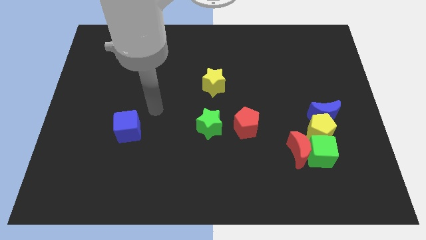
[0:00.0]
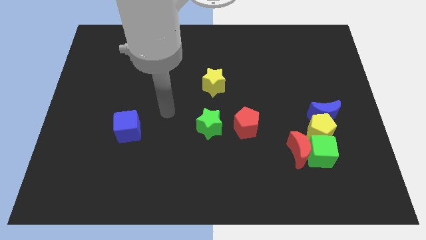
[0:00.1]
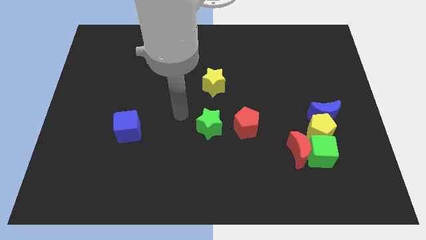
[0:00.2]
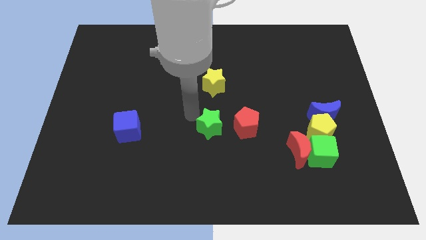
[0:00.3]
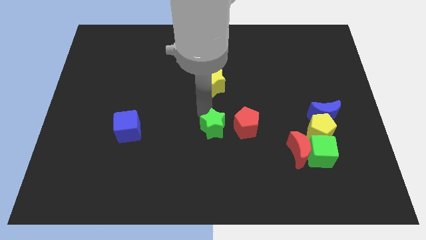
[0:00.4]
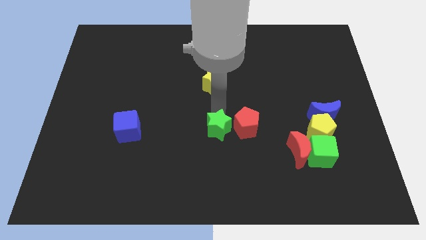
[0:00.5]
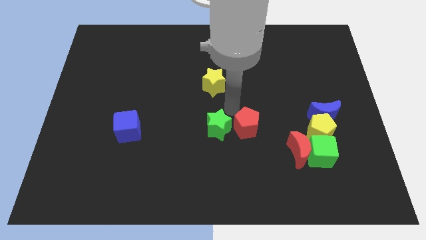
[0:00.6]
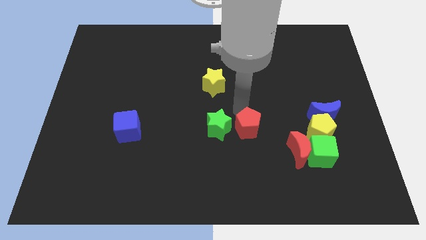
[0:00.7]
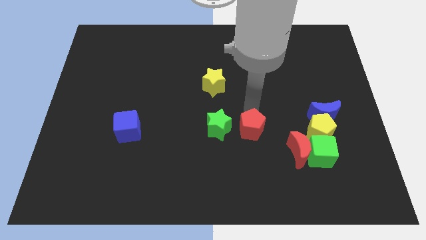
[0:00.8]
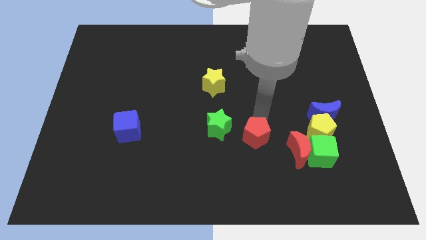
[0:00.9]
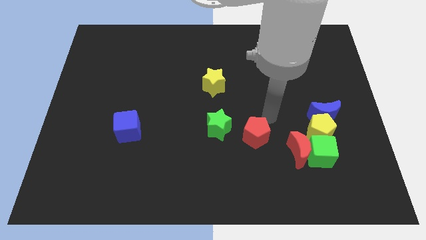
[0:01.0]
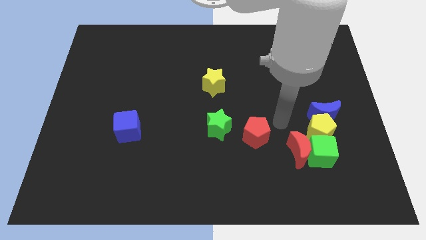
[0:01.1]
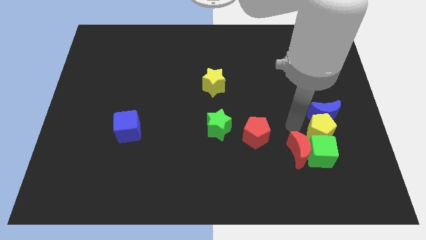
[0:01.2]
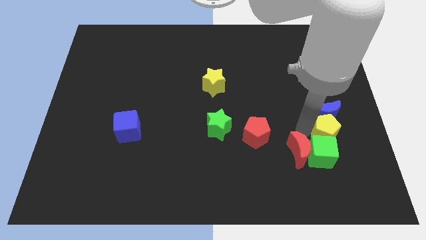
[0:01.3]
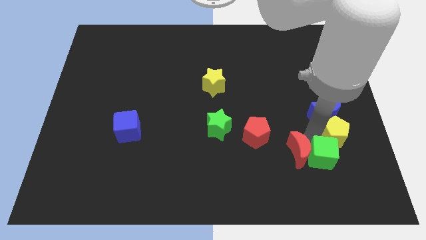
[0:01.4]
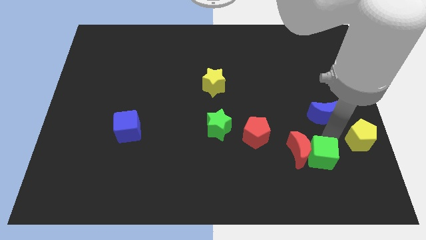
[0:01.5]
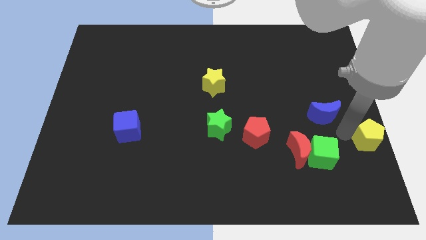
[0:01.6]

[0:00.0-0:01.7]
pull the blue moon apart from the yellow pentagon

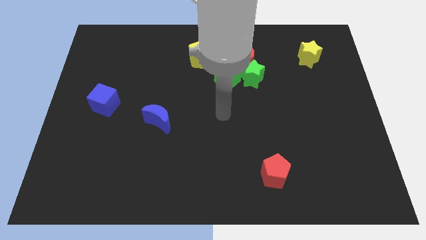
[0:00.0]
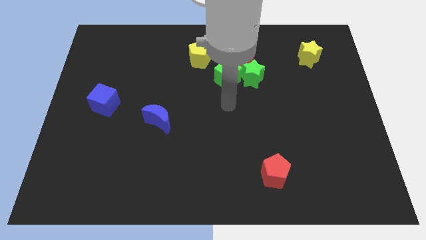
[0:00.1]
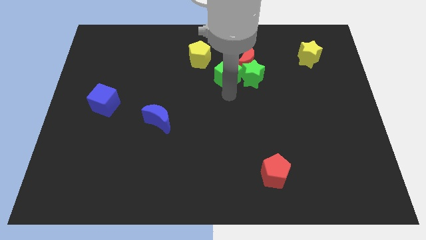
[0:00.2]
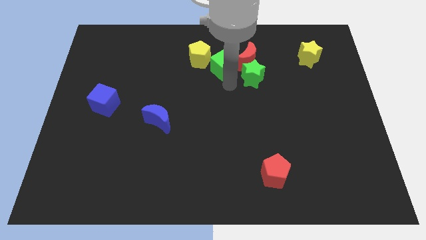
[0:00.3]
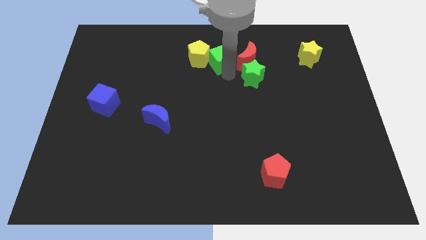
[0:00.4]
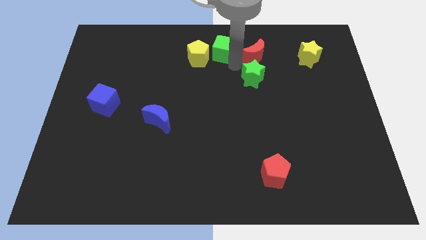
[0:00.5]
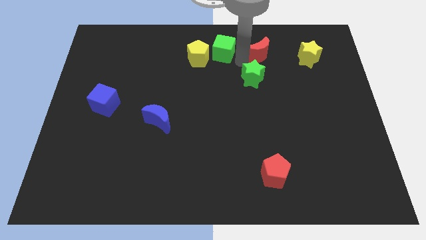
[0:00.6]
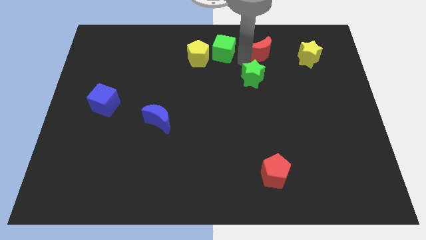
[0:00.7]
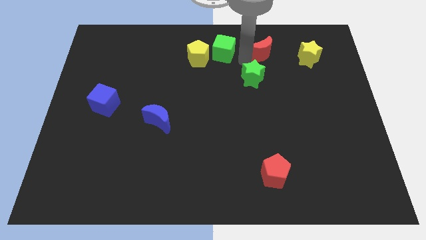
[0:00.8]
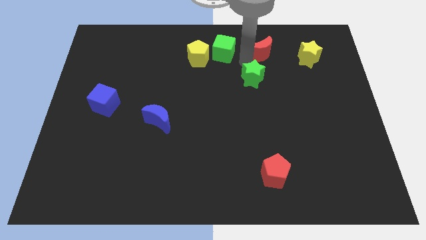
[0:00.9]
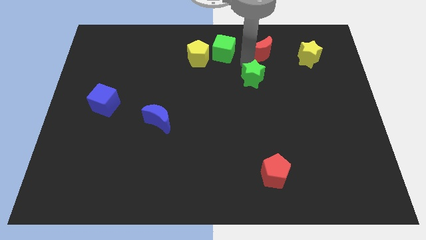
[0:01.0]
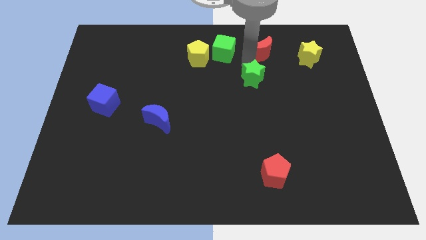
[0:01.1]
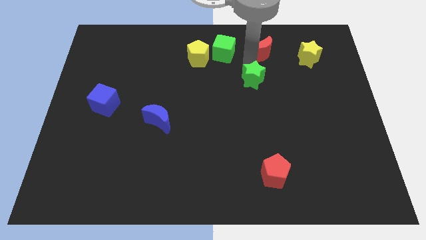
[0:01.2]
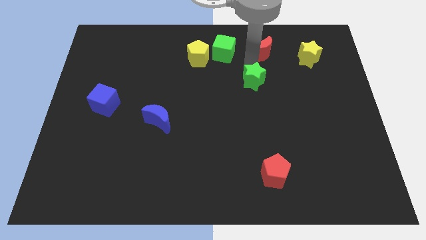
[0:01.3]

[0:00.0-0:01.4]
move the green star away from the red moon and green cube

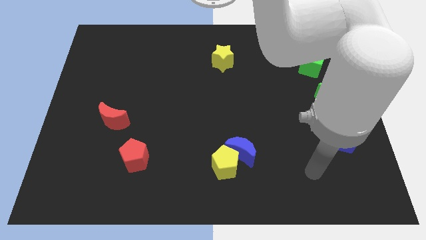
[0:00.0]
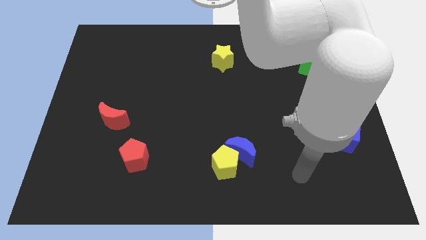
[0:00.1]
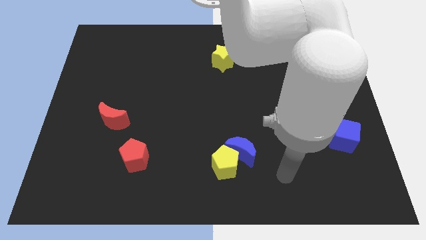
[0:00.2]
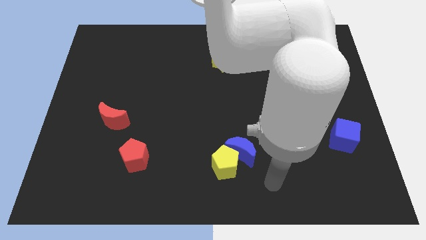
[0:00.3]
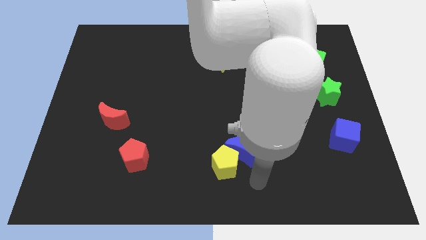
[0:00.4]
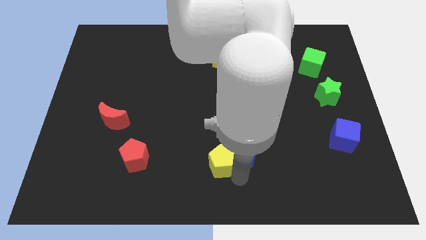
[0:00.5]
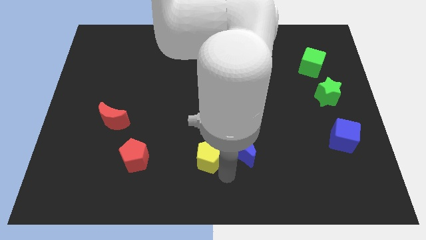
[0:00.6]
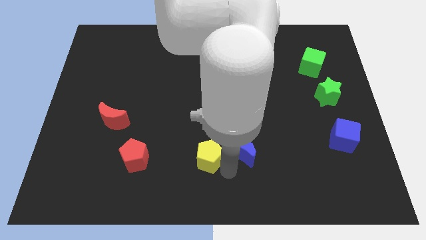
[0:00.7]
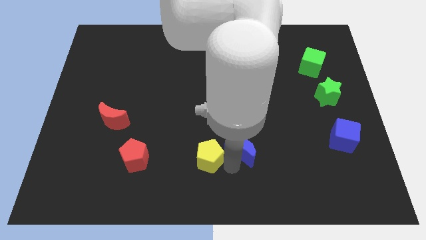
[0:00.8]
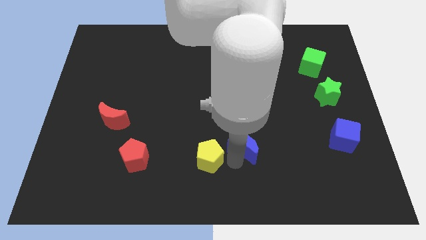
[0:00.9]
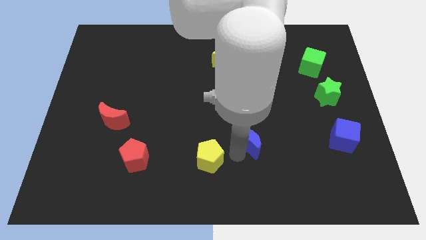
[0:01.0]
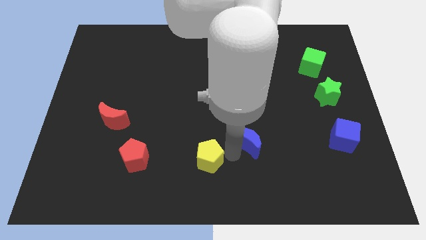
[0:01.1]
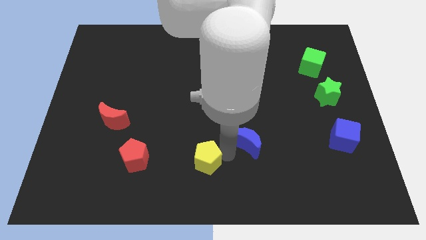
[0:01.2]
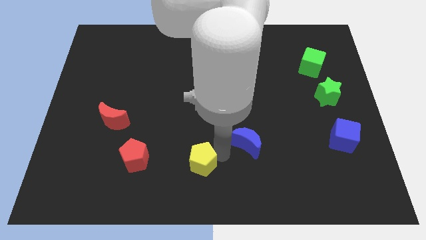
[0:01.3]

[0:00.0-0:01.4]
move the blue moon away from the yellow pentagon

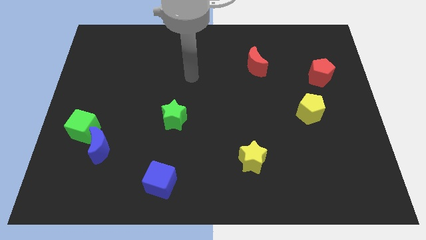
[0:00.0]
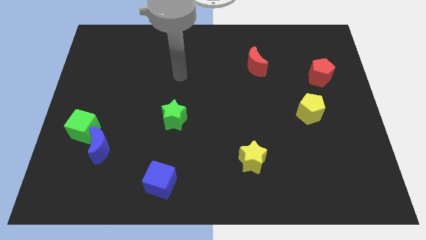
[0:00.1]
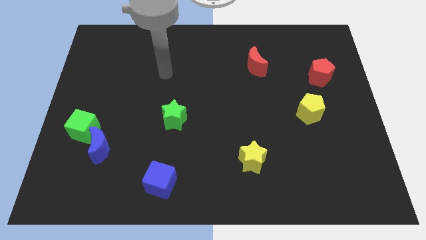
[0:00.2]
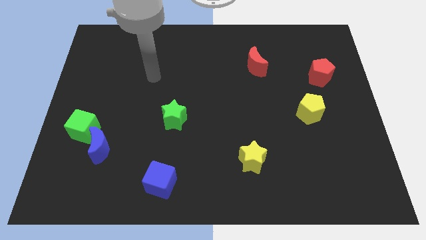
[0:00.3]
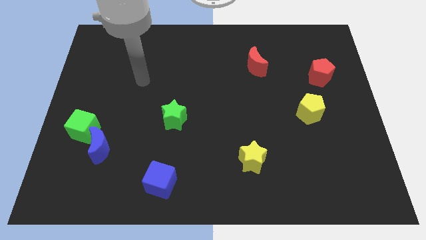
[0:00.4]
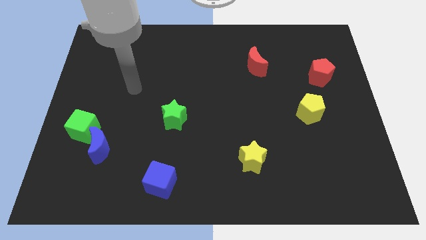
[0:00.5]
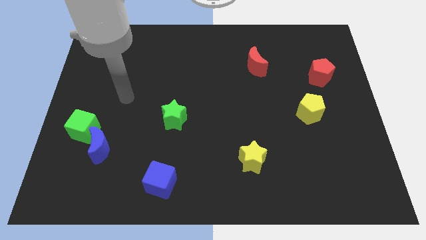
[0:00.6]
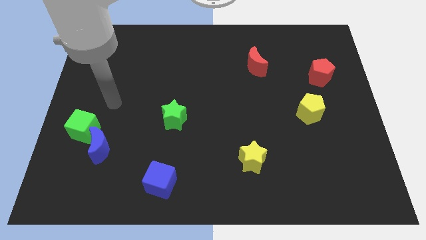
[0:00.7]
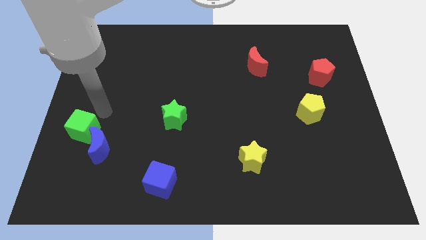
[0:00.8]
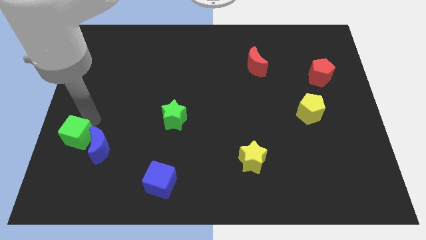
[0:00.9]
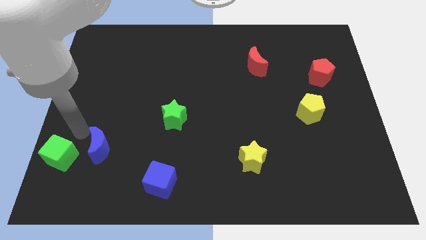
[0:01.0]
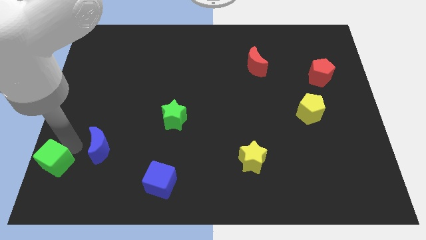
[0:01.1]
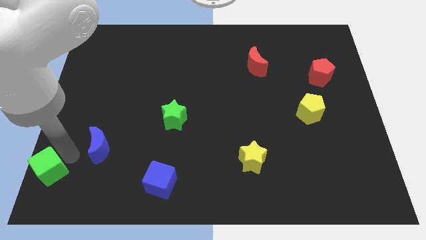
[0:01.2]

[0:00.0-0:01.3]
move the blue moon away from the green cube

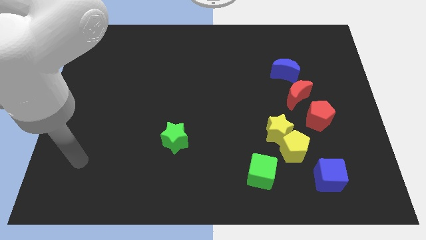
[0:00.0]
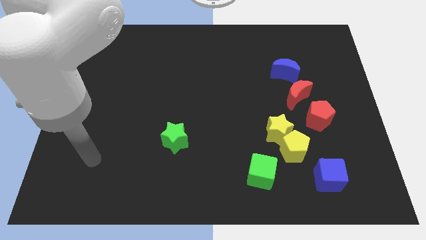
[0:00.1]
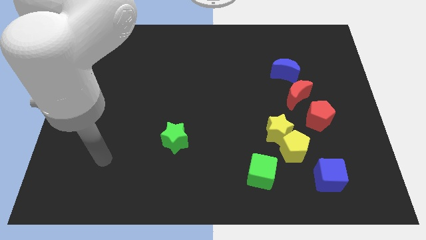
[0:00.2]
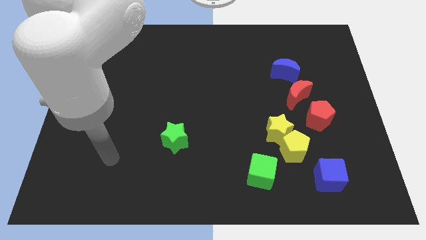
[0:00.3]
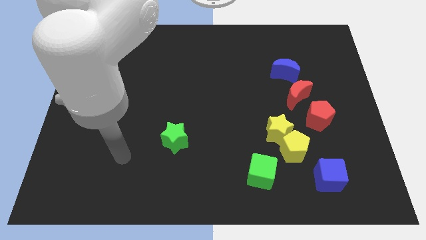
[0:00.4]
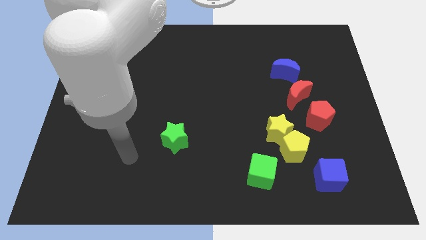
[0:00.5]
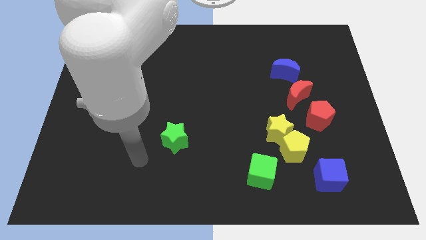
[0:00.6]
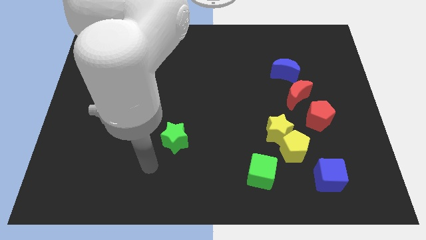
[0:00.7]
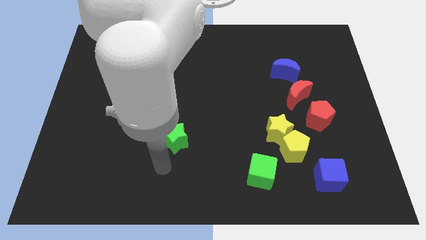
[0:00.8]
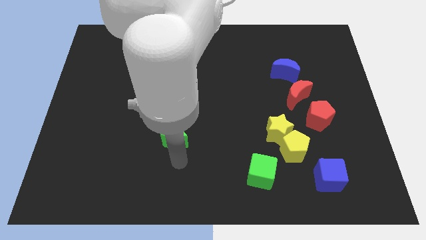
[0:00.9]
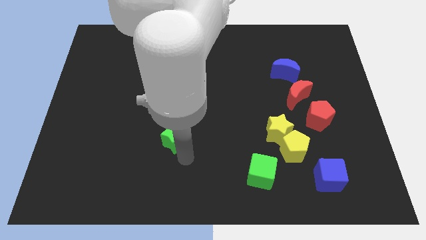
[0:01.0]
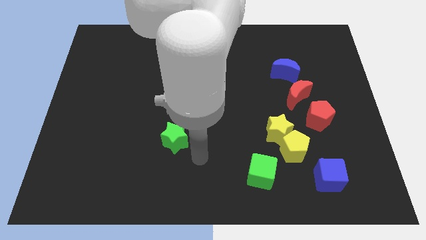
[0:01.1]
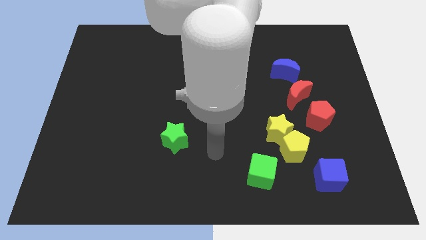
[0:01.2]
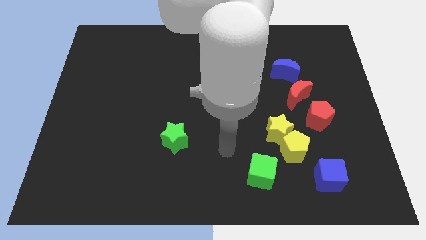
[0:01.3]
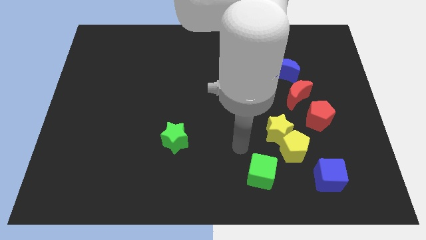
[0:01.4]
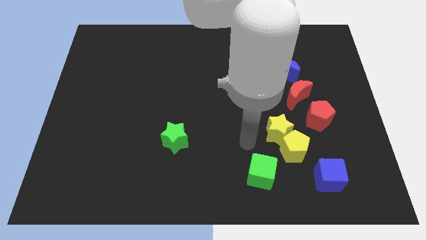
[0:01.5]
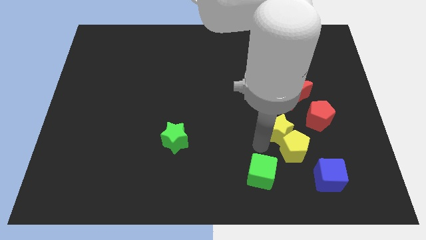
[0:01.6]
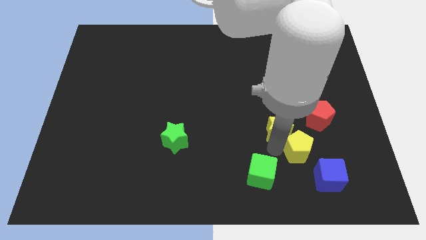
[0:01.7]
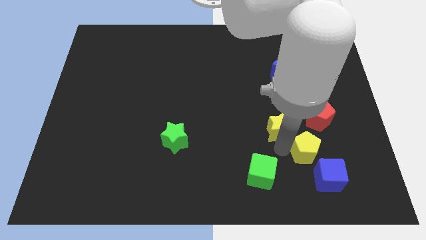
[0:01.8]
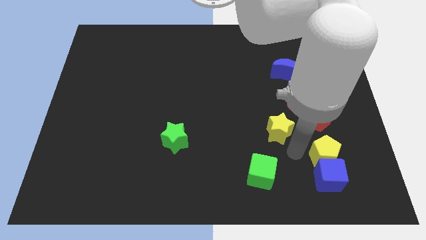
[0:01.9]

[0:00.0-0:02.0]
move the yellow star away from the yellow pentagon

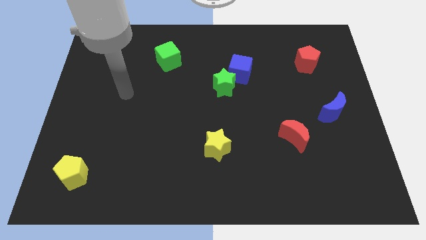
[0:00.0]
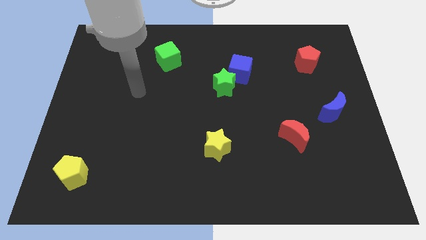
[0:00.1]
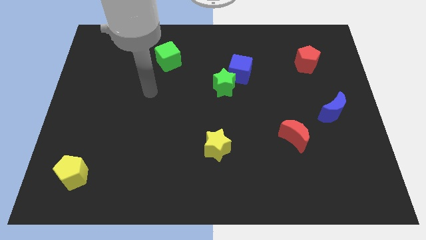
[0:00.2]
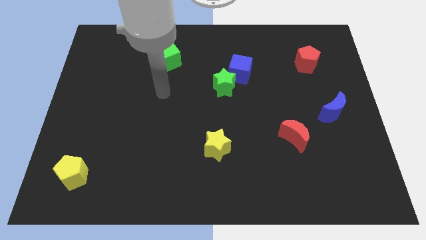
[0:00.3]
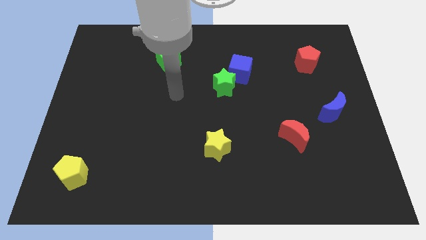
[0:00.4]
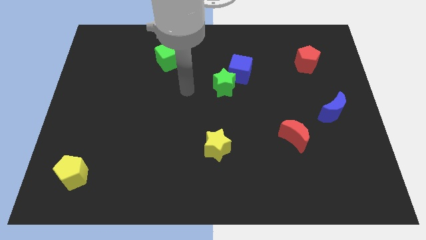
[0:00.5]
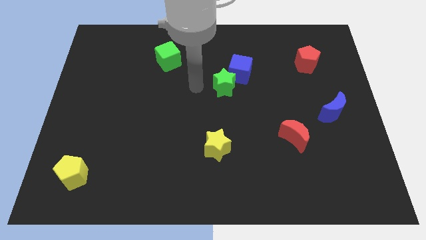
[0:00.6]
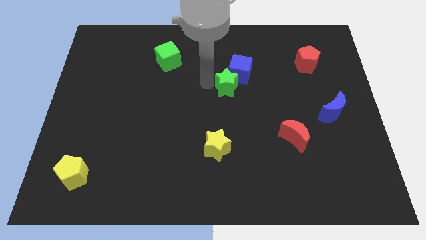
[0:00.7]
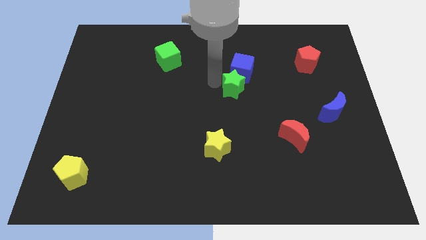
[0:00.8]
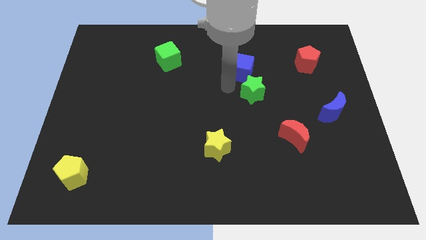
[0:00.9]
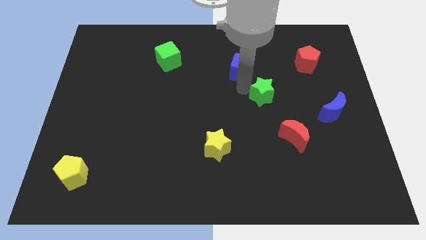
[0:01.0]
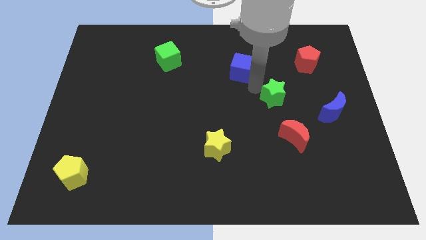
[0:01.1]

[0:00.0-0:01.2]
move the blue cube away from the green star

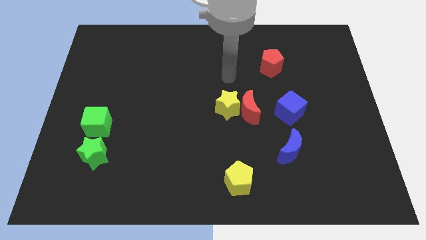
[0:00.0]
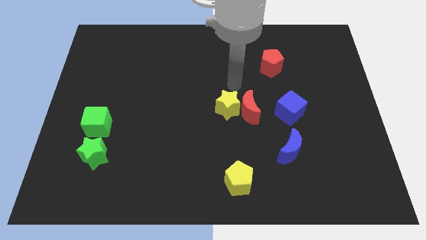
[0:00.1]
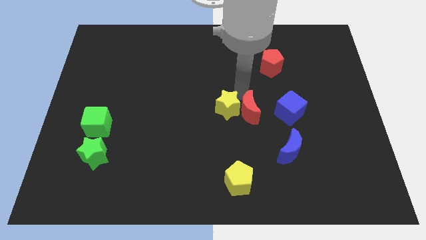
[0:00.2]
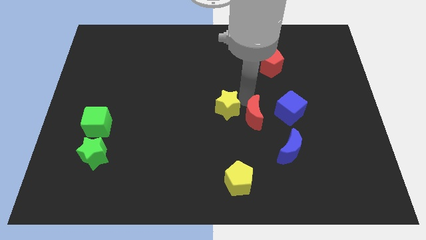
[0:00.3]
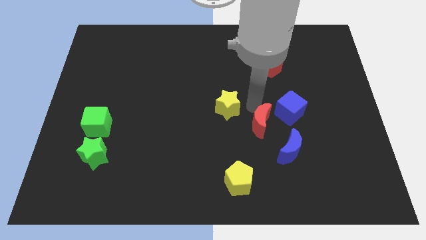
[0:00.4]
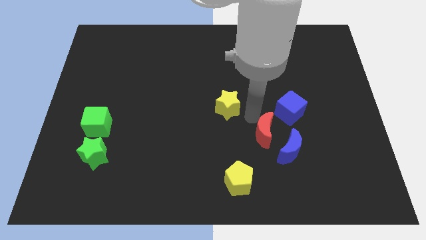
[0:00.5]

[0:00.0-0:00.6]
separate the yellow star from the red moon
